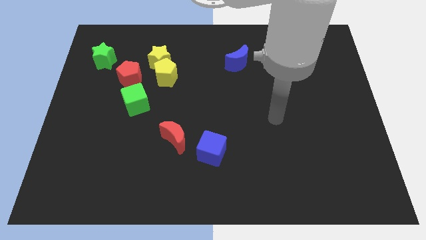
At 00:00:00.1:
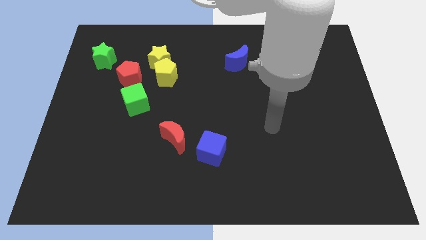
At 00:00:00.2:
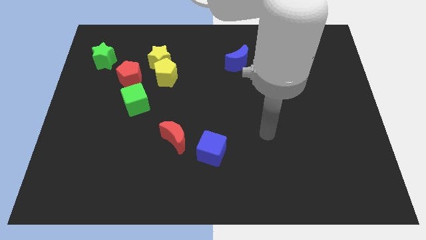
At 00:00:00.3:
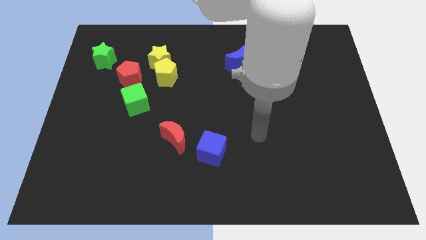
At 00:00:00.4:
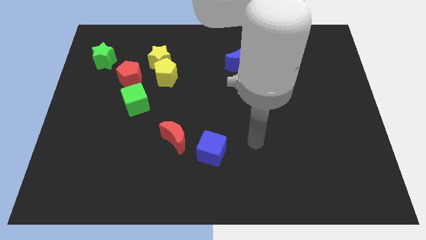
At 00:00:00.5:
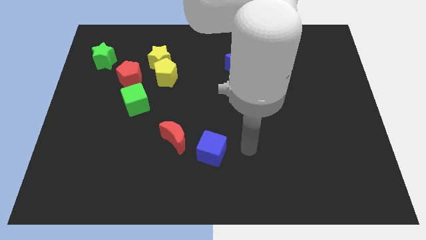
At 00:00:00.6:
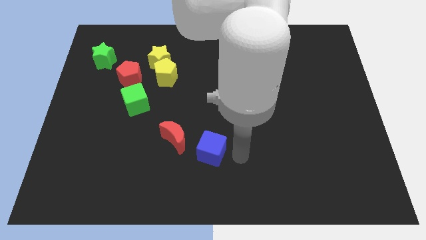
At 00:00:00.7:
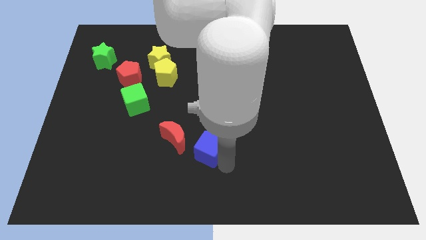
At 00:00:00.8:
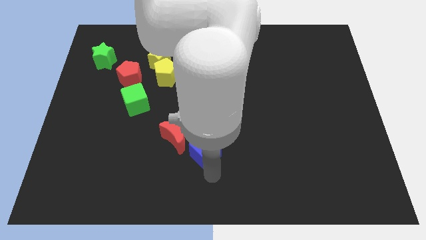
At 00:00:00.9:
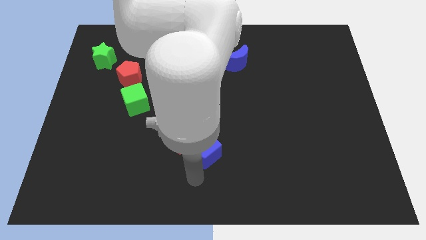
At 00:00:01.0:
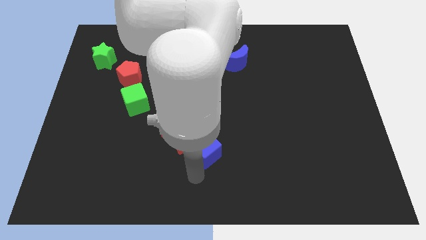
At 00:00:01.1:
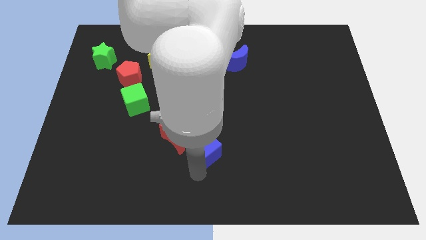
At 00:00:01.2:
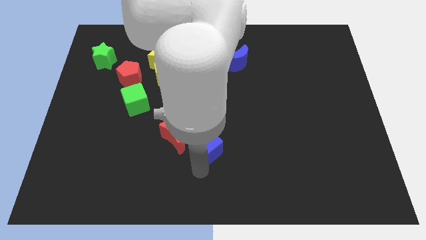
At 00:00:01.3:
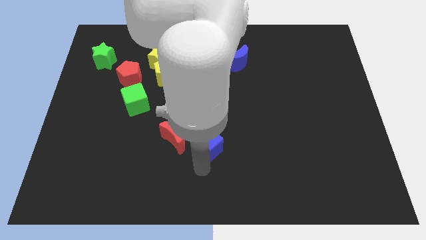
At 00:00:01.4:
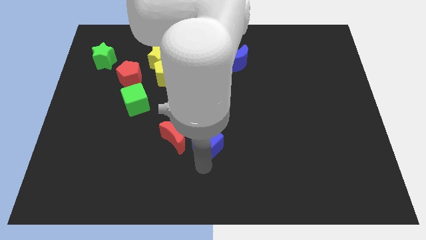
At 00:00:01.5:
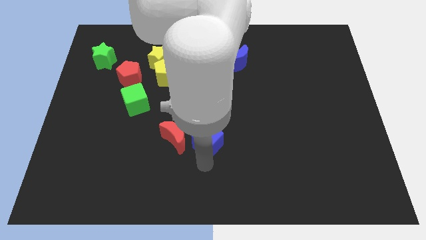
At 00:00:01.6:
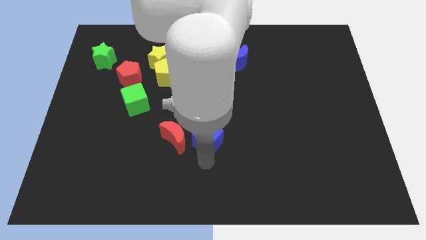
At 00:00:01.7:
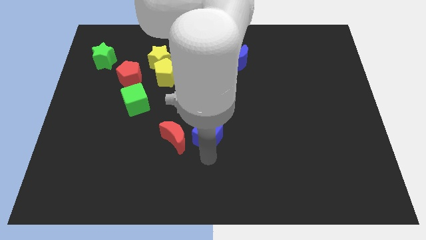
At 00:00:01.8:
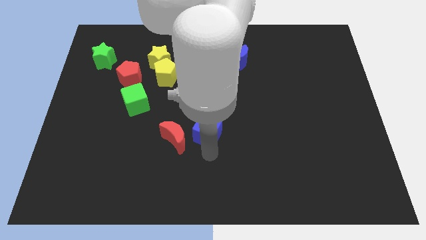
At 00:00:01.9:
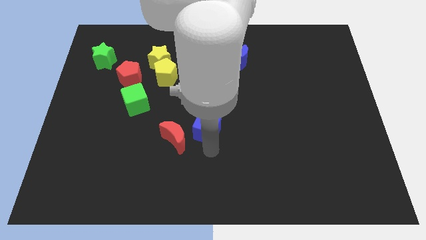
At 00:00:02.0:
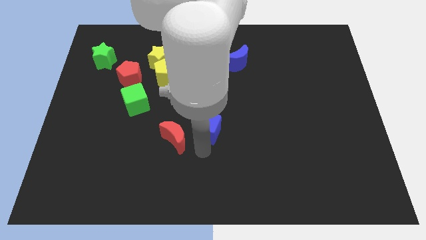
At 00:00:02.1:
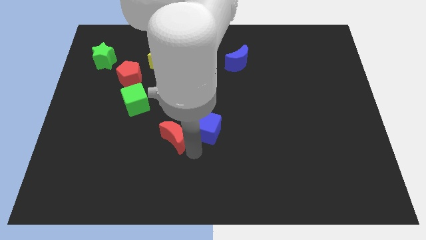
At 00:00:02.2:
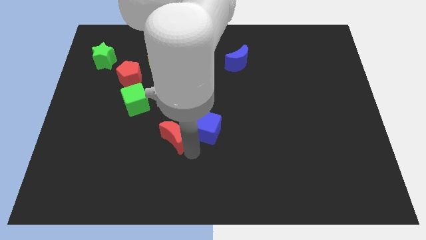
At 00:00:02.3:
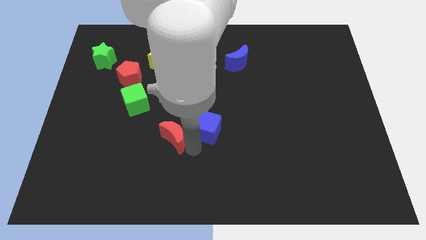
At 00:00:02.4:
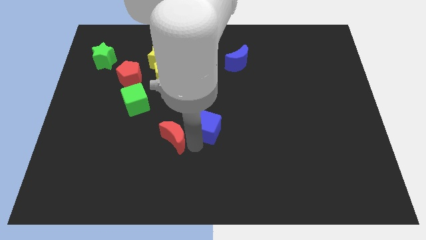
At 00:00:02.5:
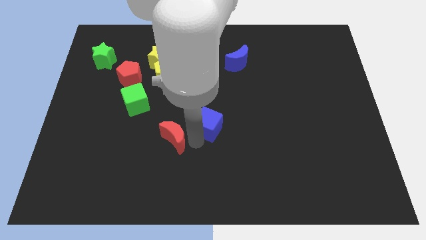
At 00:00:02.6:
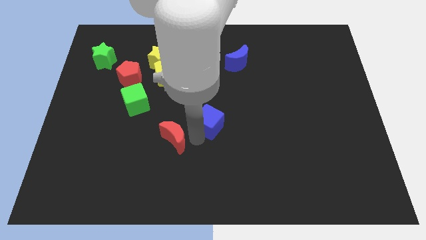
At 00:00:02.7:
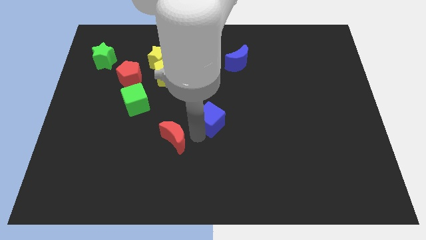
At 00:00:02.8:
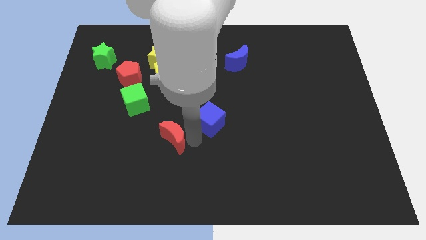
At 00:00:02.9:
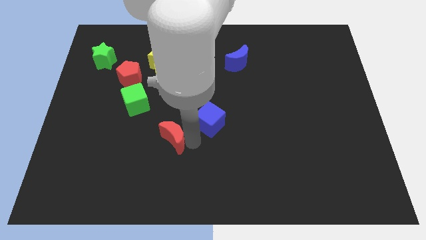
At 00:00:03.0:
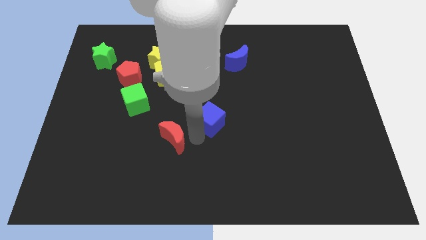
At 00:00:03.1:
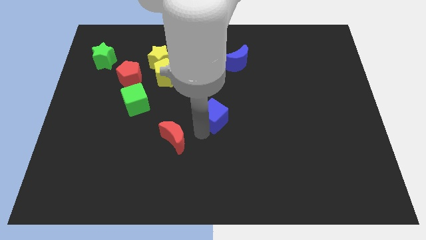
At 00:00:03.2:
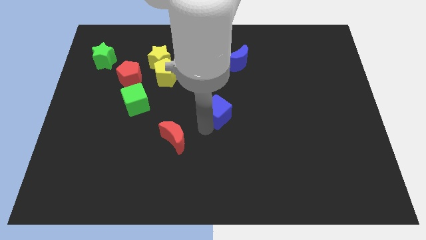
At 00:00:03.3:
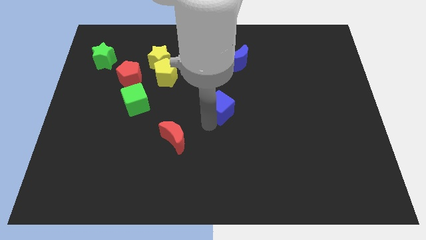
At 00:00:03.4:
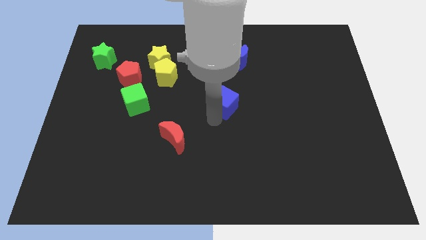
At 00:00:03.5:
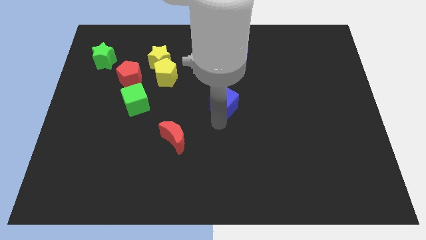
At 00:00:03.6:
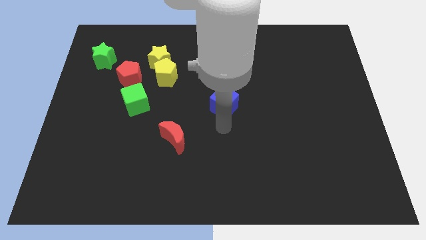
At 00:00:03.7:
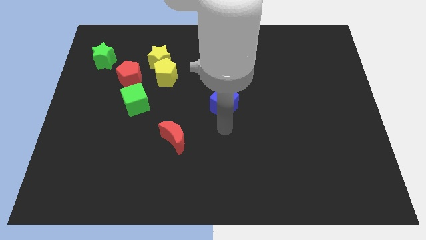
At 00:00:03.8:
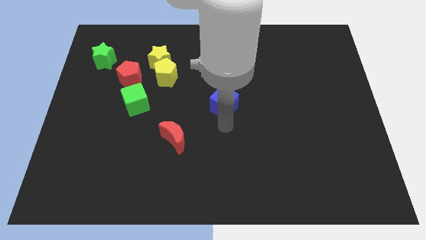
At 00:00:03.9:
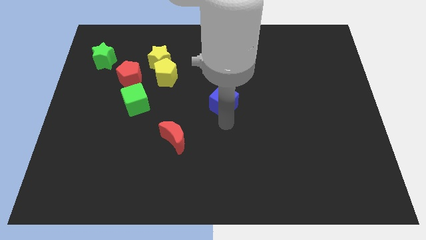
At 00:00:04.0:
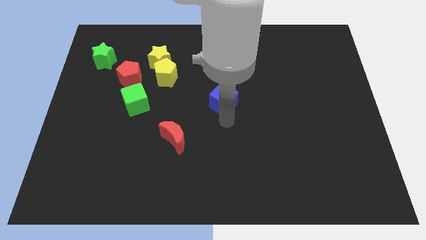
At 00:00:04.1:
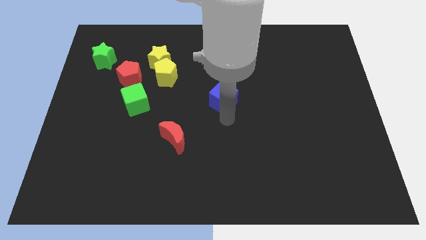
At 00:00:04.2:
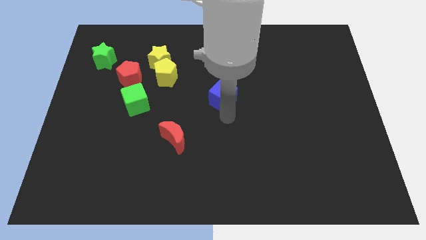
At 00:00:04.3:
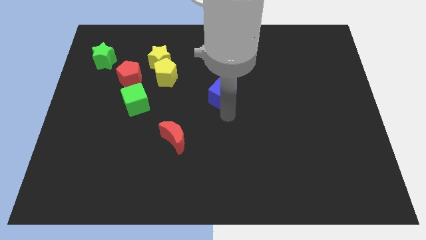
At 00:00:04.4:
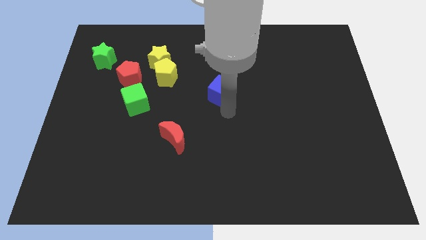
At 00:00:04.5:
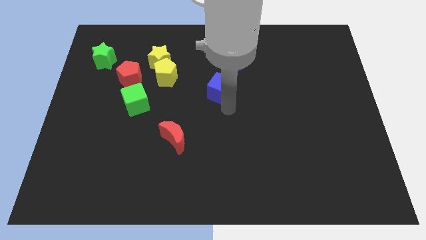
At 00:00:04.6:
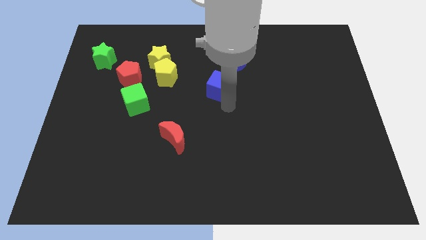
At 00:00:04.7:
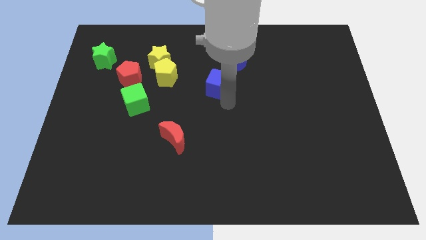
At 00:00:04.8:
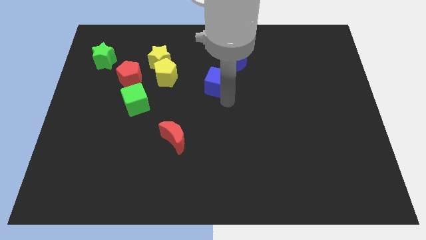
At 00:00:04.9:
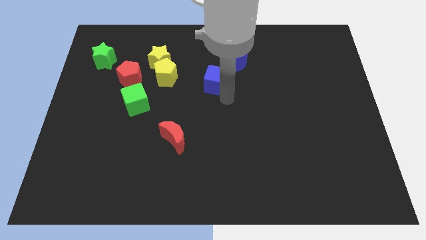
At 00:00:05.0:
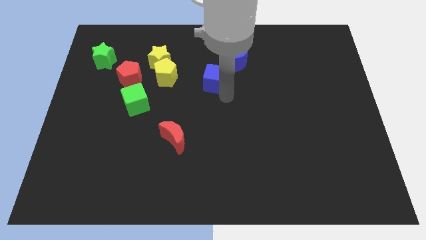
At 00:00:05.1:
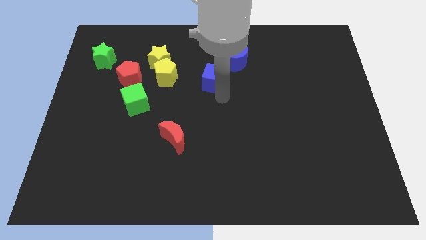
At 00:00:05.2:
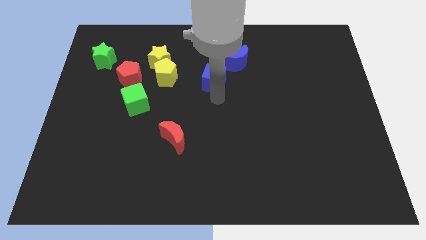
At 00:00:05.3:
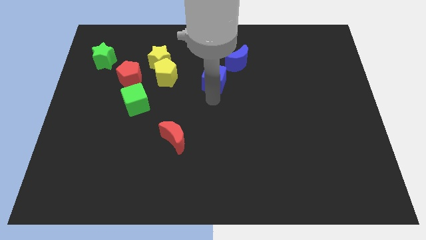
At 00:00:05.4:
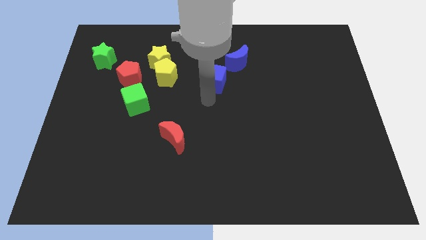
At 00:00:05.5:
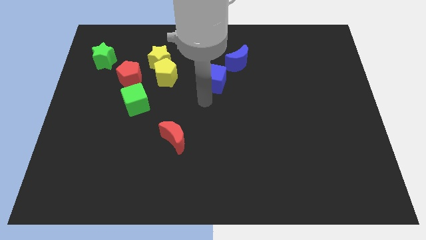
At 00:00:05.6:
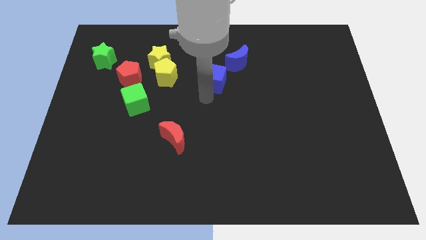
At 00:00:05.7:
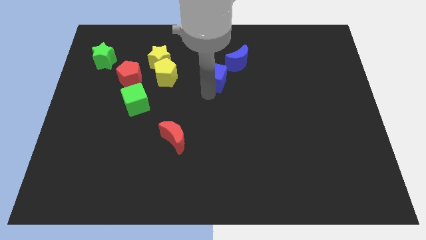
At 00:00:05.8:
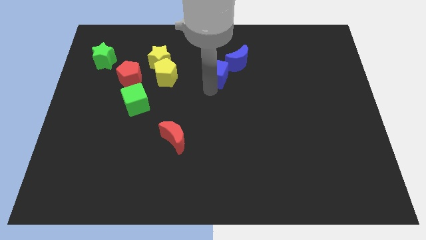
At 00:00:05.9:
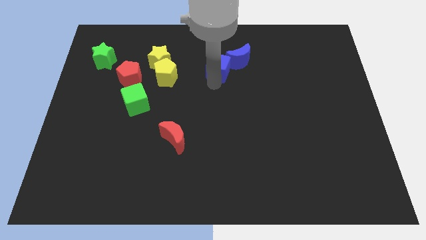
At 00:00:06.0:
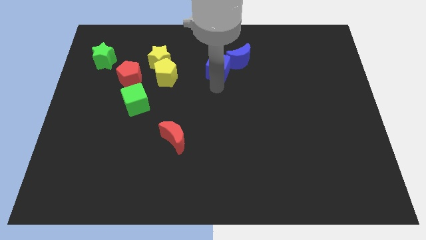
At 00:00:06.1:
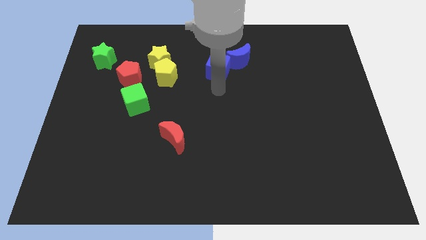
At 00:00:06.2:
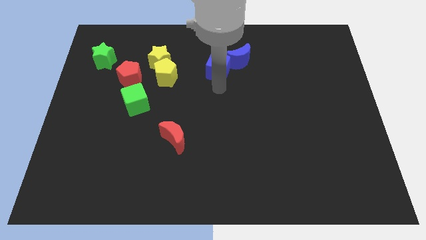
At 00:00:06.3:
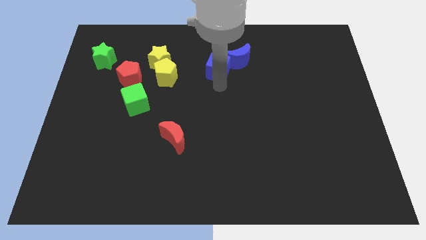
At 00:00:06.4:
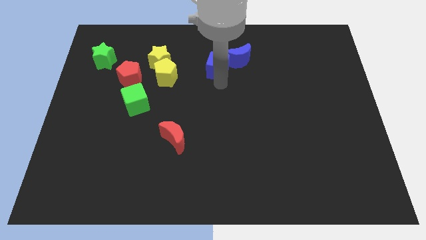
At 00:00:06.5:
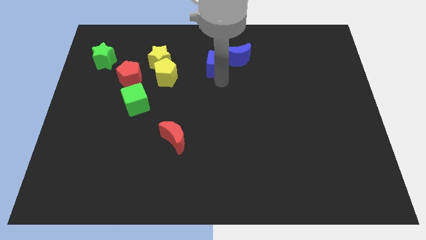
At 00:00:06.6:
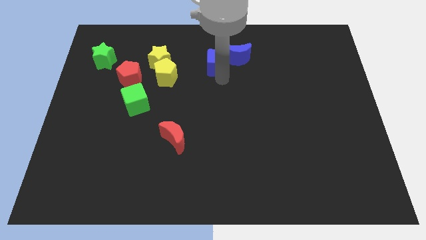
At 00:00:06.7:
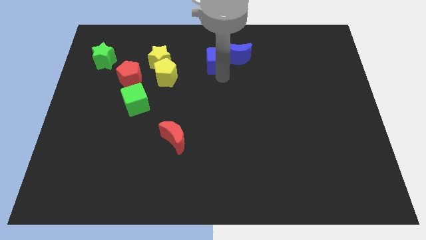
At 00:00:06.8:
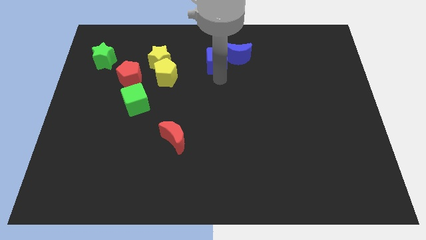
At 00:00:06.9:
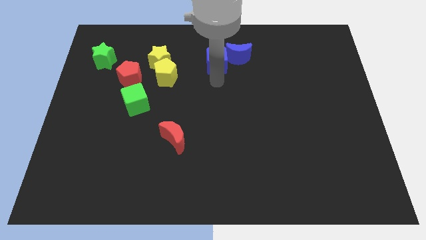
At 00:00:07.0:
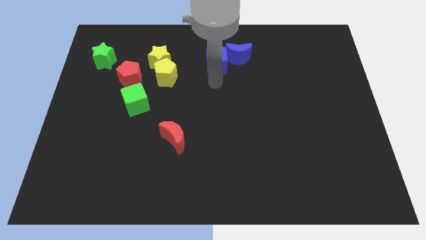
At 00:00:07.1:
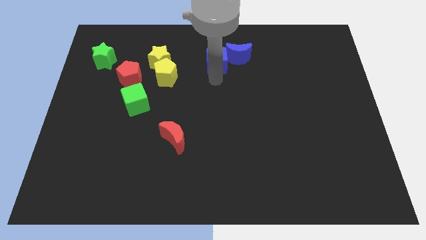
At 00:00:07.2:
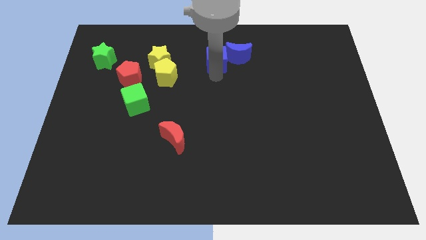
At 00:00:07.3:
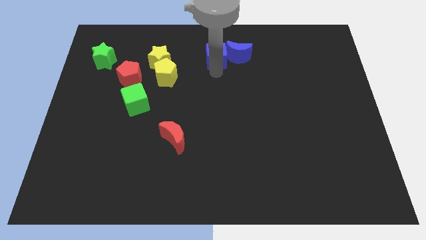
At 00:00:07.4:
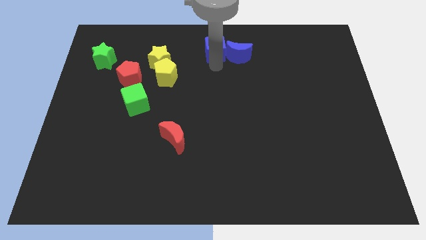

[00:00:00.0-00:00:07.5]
slide the blue cube to the top
